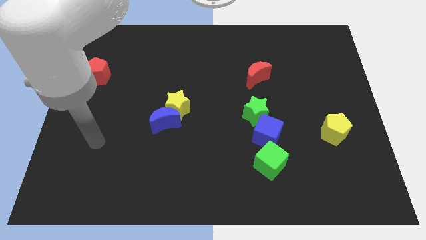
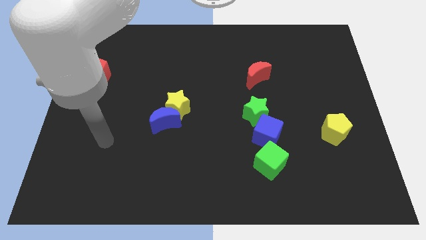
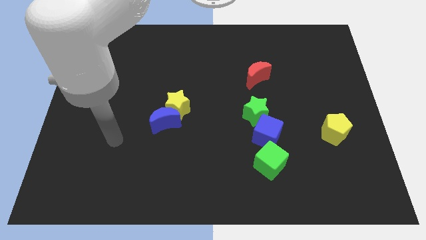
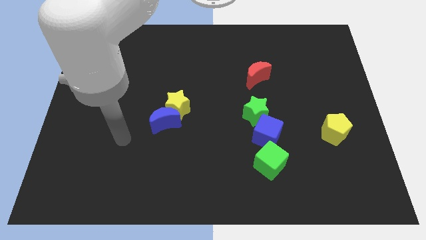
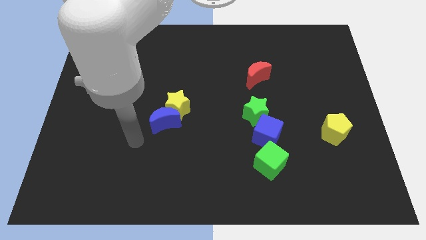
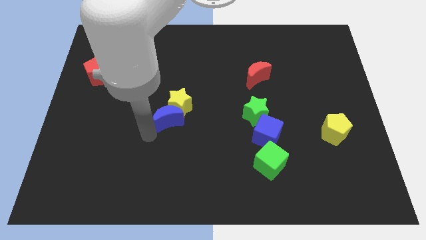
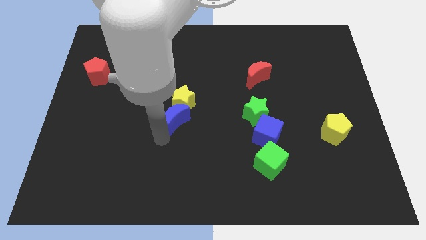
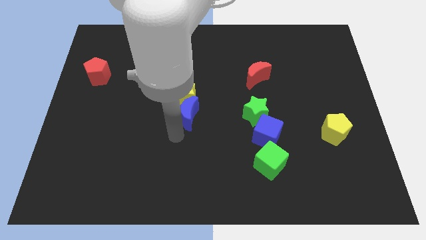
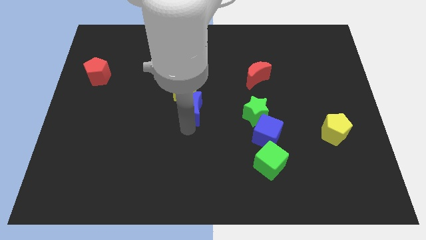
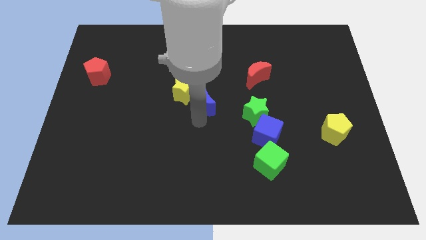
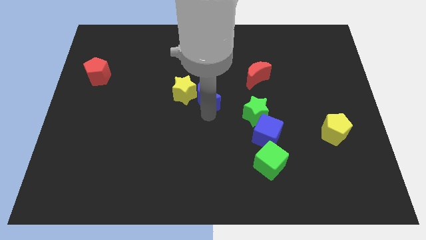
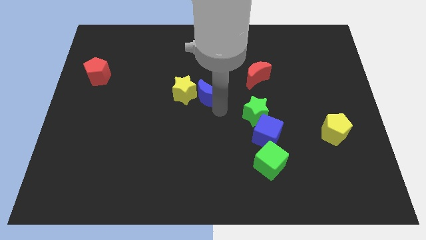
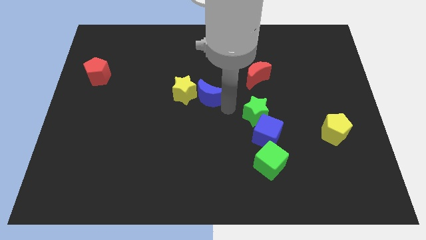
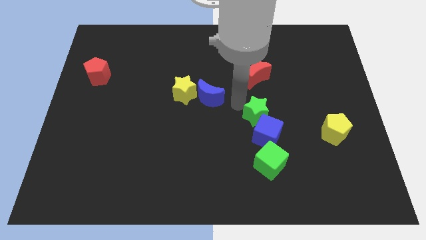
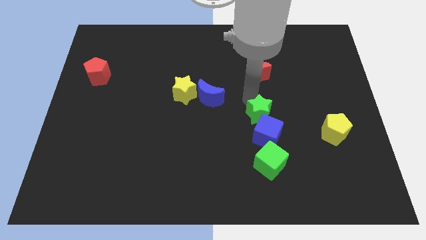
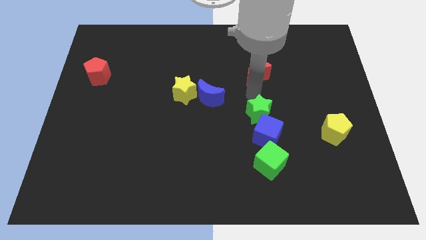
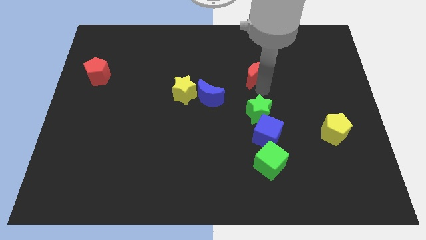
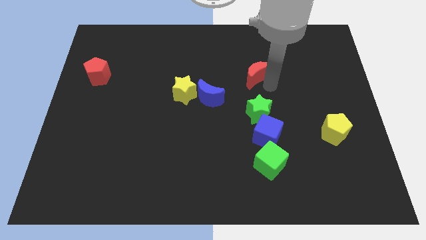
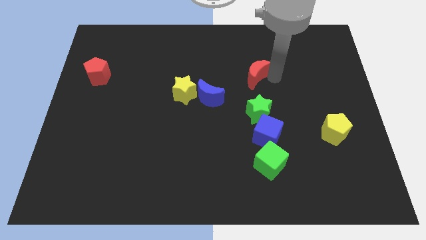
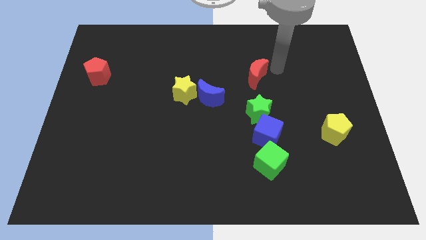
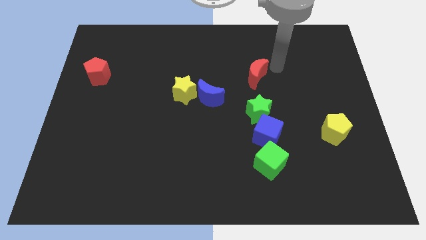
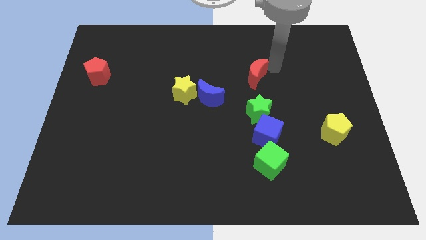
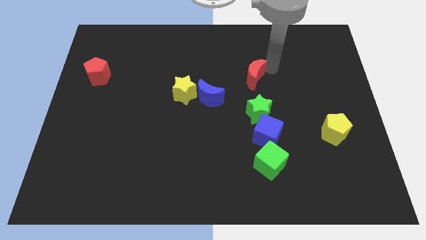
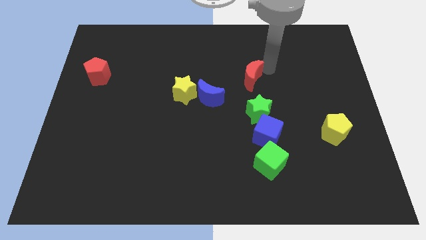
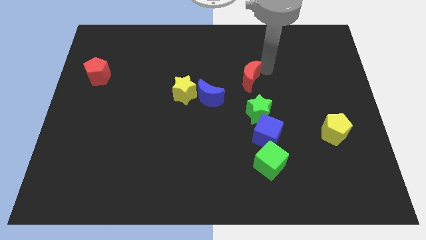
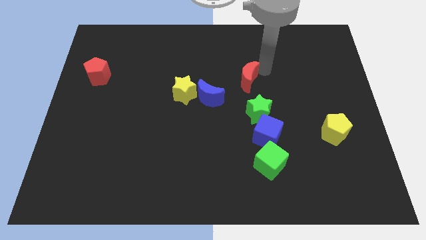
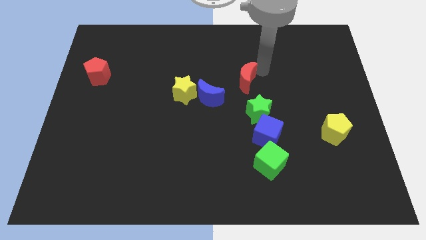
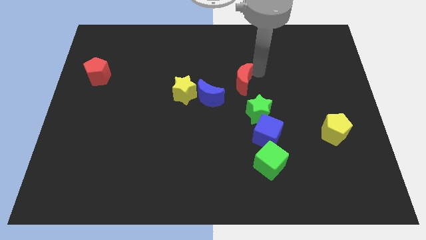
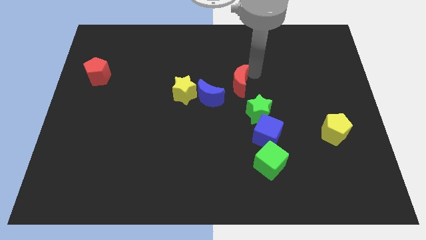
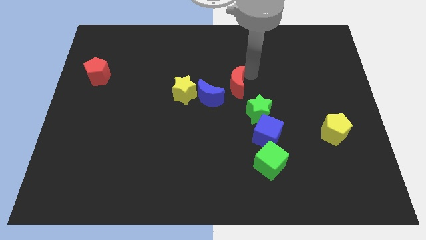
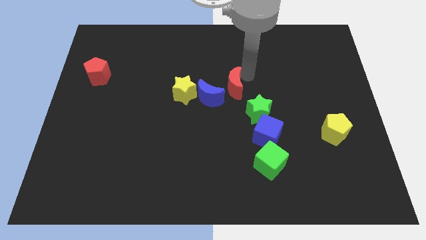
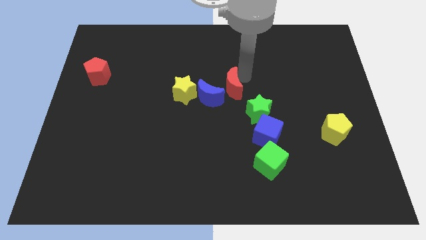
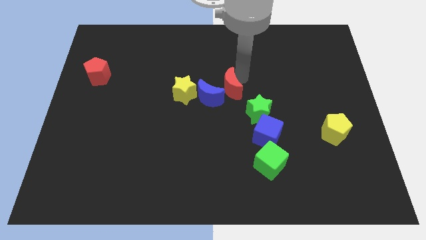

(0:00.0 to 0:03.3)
move the red moon down and to the left a little bit

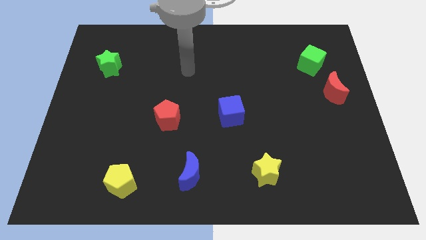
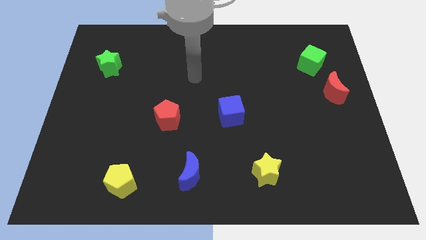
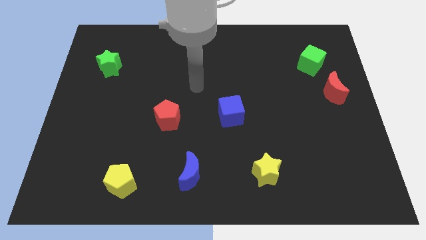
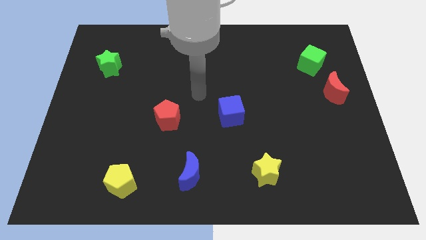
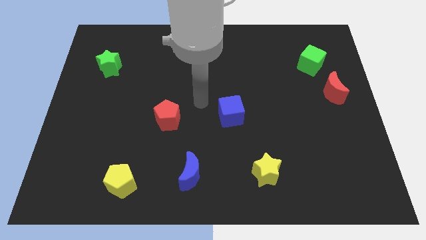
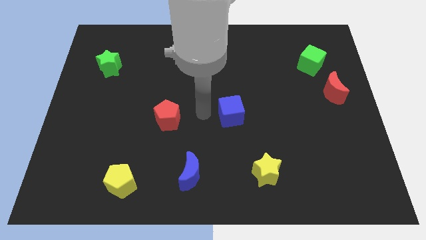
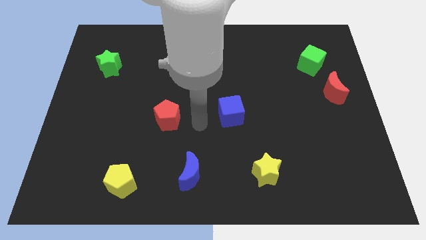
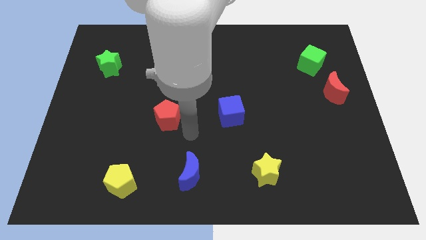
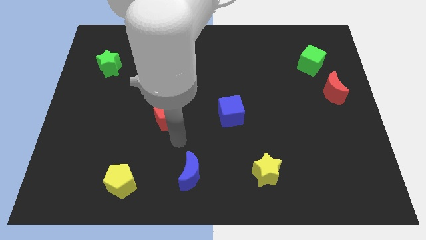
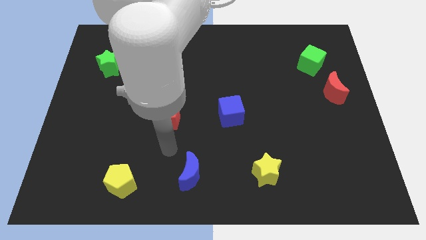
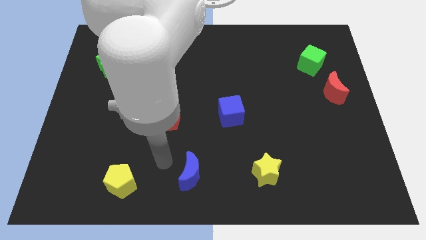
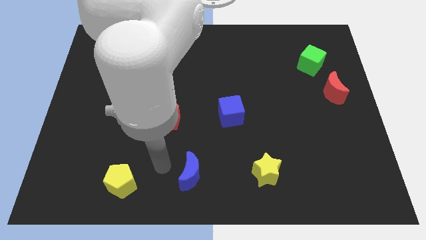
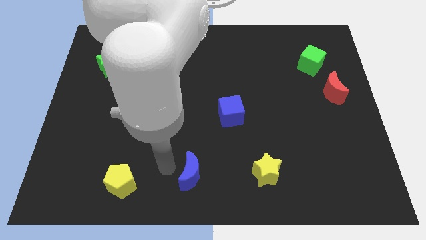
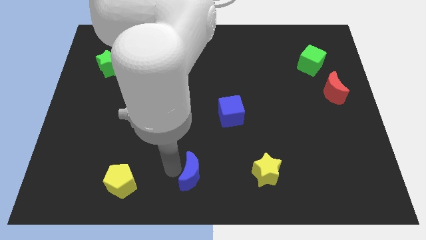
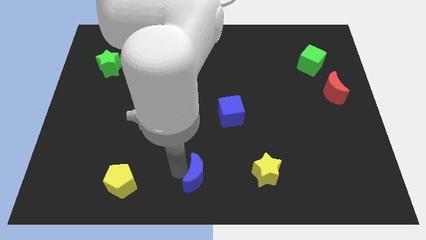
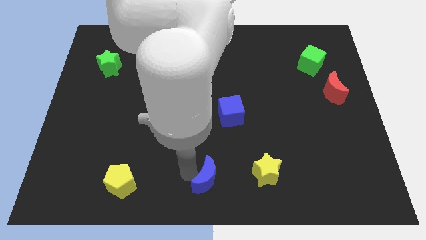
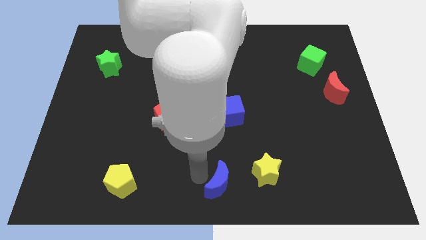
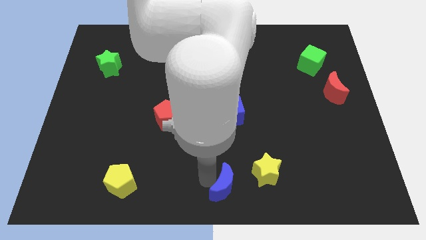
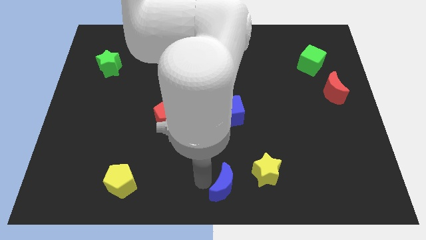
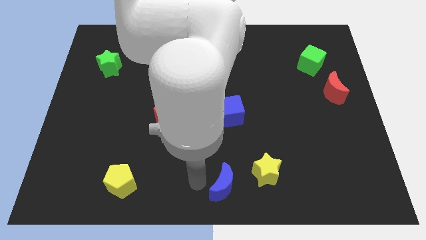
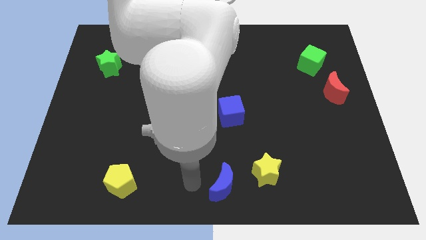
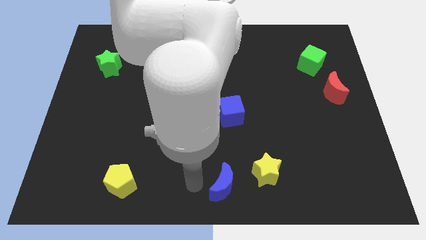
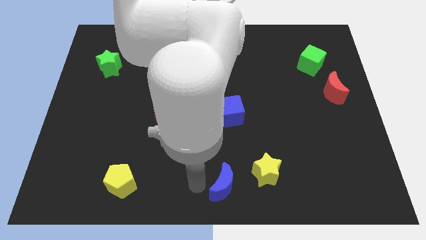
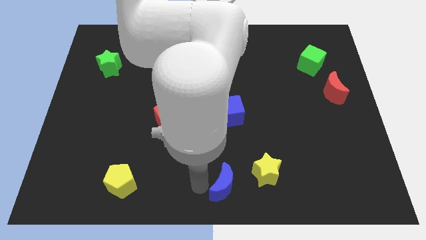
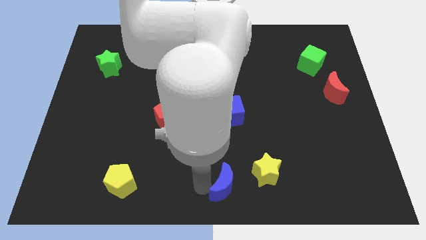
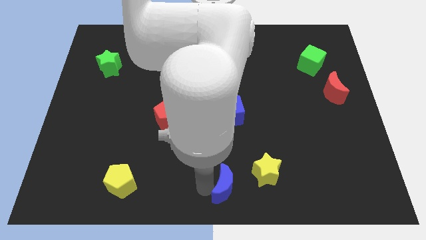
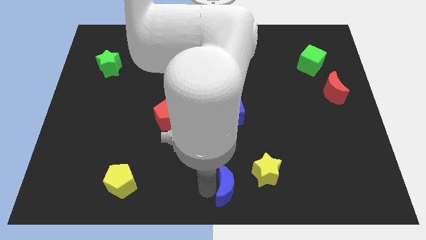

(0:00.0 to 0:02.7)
slightly slide the blue moon to the right

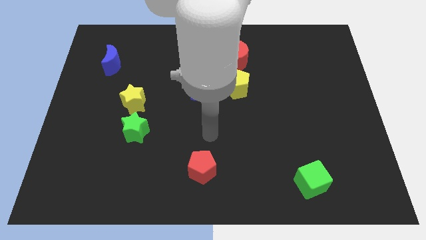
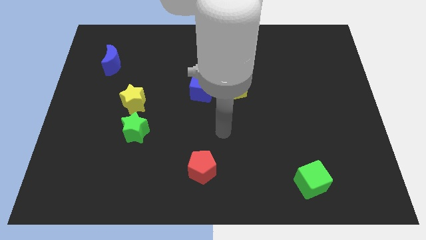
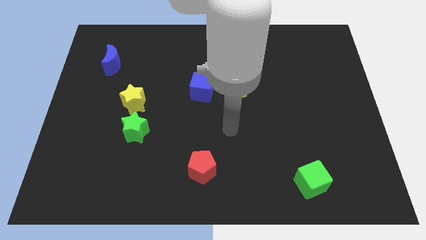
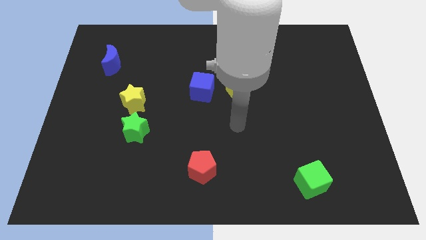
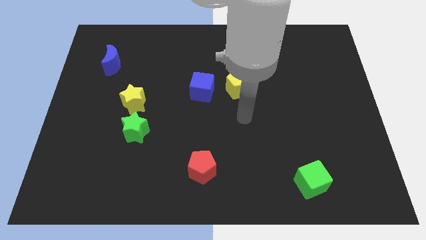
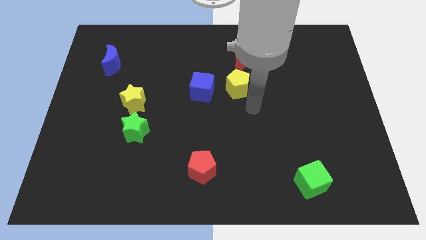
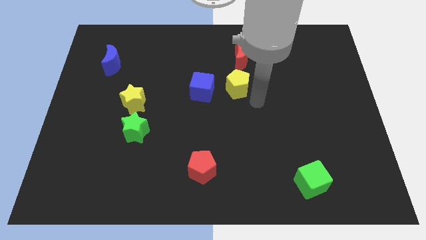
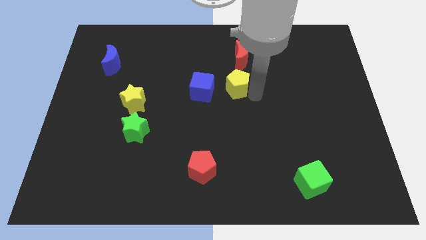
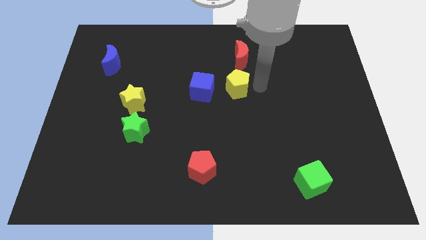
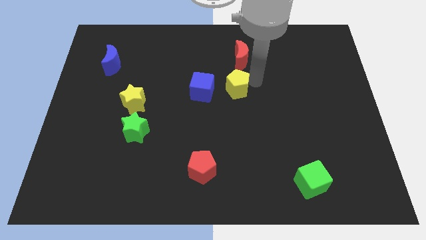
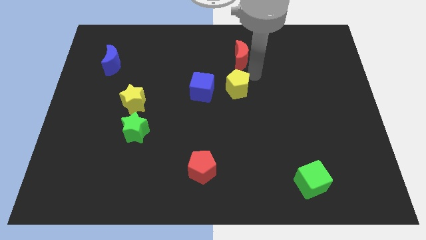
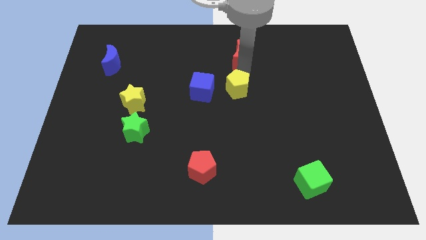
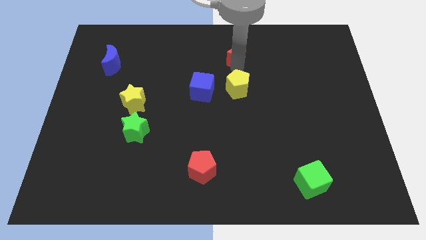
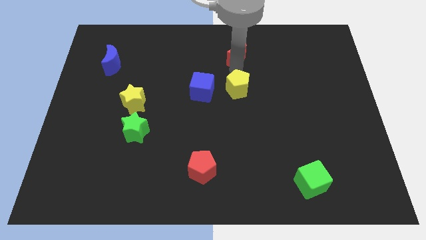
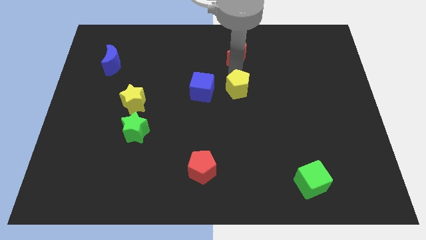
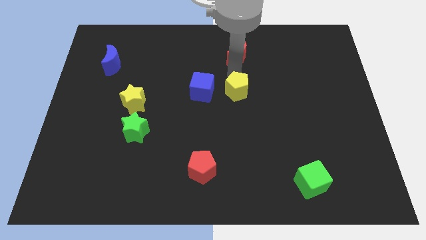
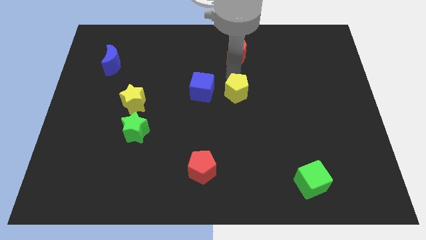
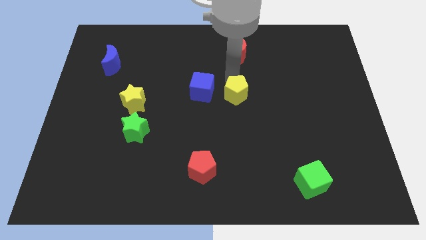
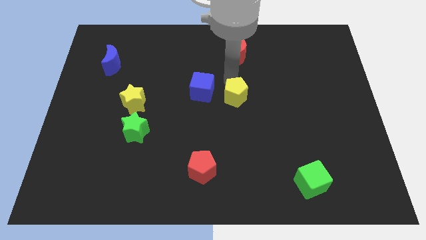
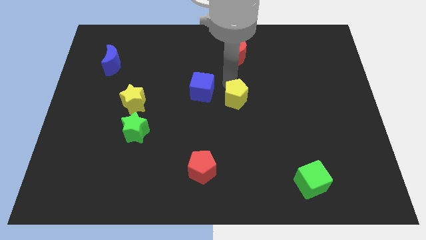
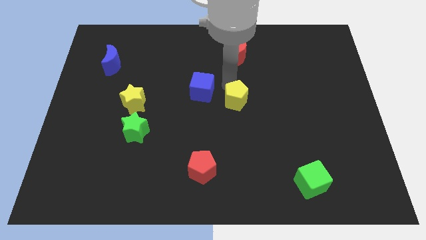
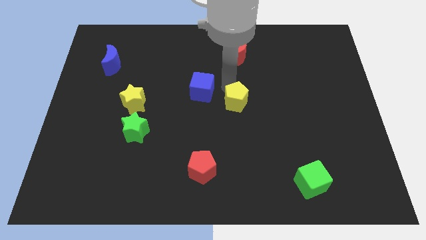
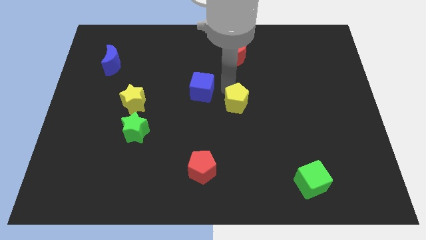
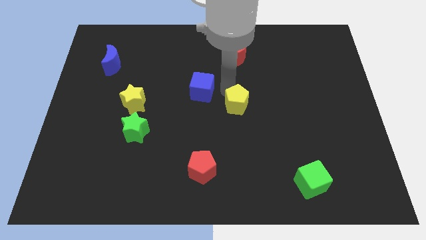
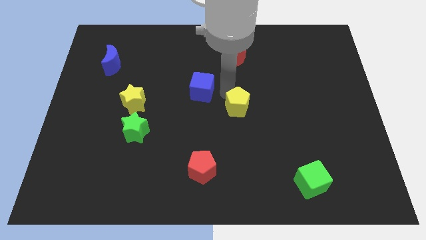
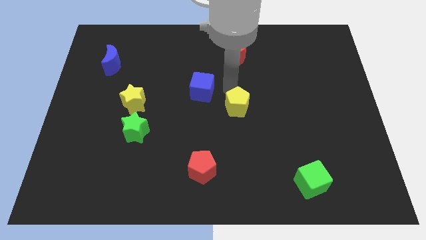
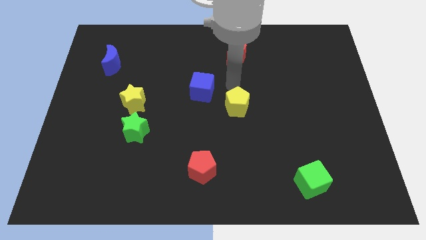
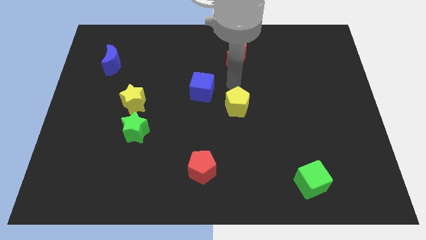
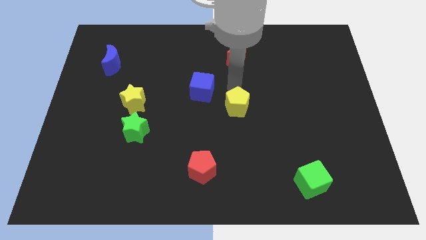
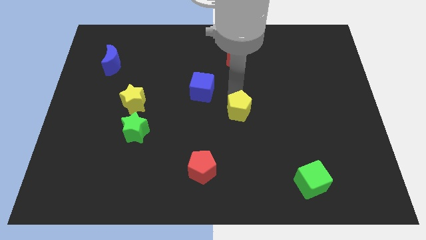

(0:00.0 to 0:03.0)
push the yellow pentagon down a little bit
